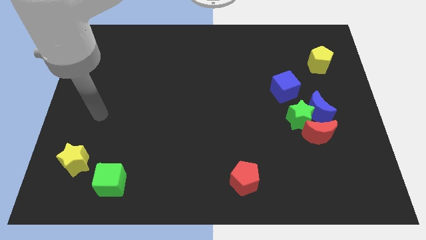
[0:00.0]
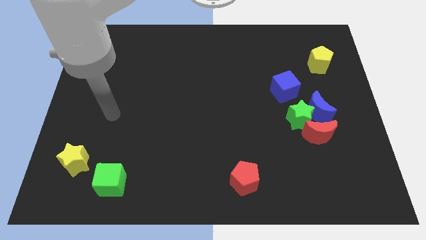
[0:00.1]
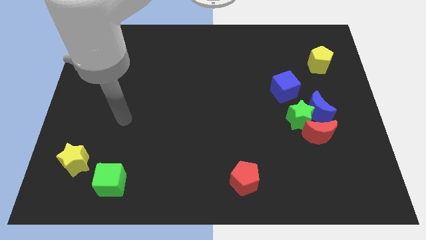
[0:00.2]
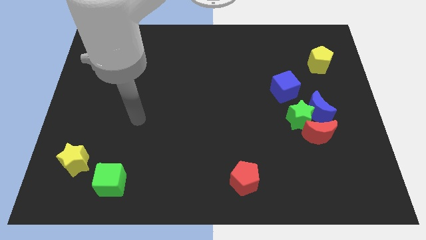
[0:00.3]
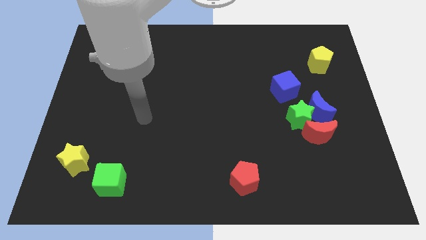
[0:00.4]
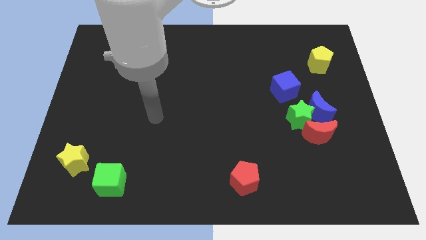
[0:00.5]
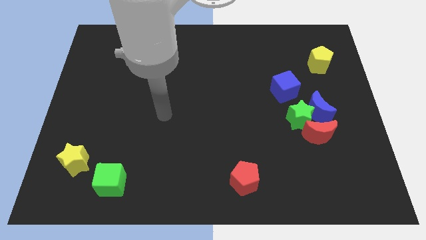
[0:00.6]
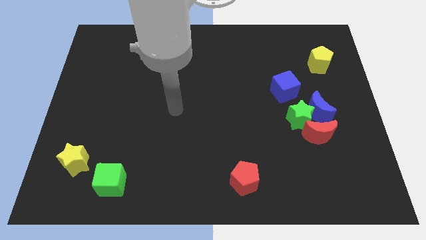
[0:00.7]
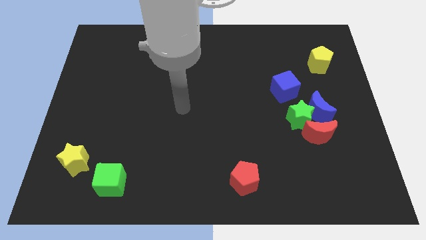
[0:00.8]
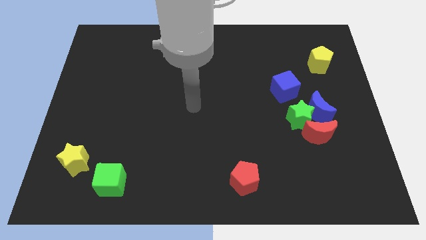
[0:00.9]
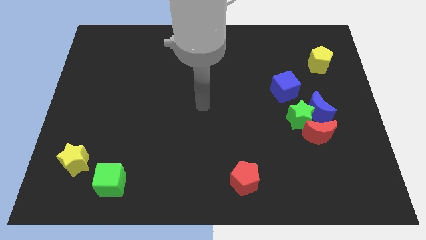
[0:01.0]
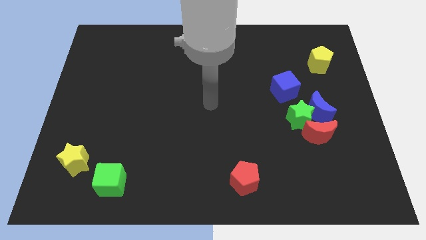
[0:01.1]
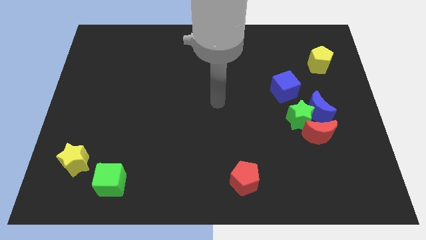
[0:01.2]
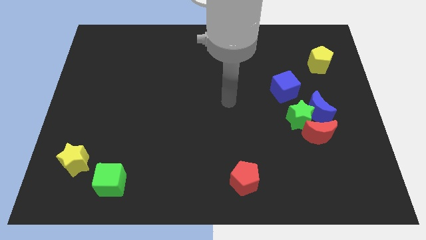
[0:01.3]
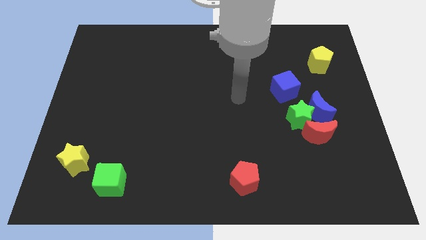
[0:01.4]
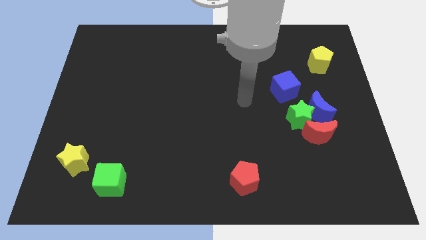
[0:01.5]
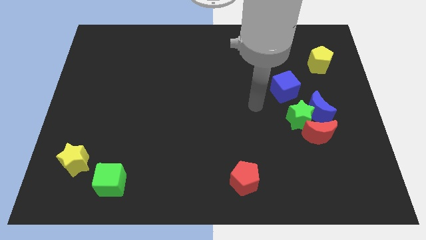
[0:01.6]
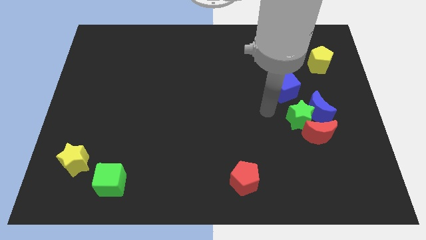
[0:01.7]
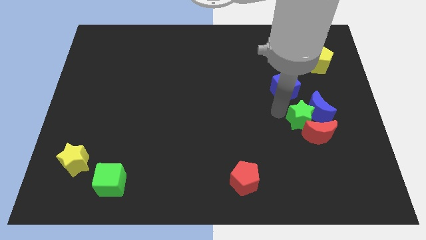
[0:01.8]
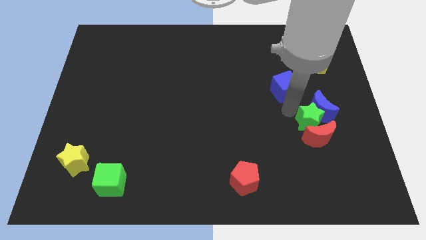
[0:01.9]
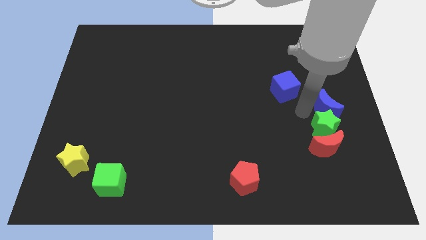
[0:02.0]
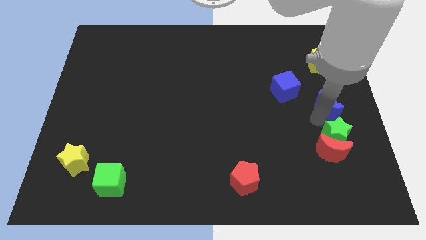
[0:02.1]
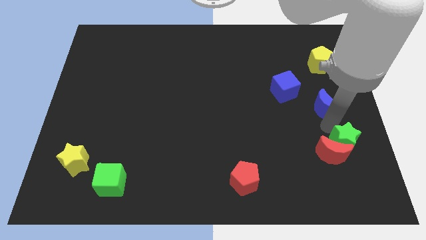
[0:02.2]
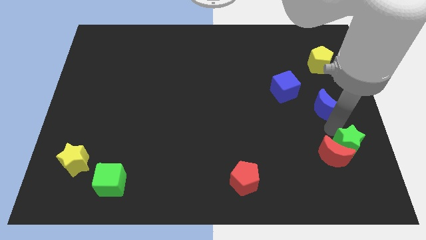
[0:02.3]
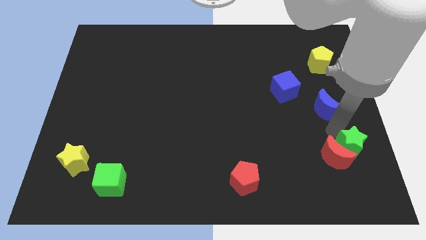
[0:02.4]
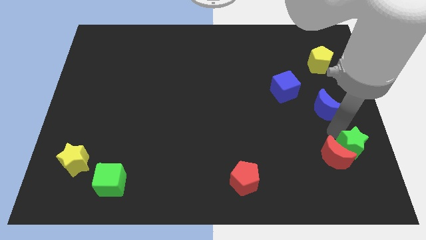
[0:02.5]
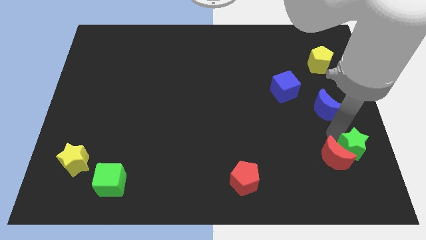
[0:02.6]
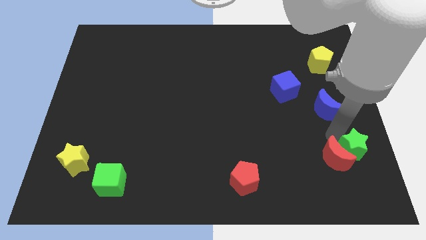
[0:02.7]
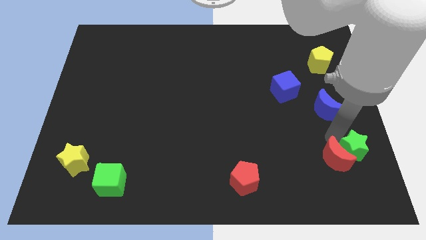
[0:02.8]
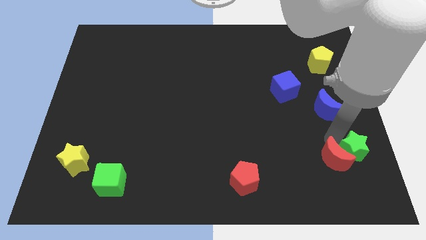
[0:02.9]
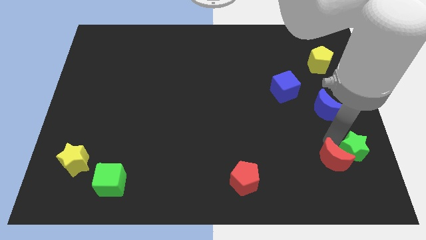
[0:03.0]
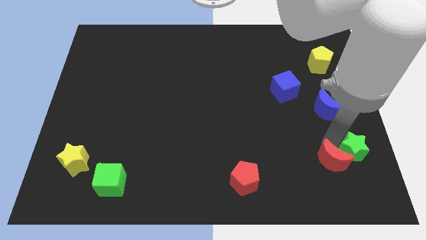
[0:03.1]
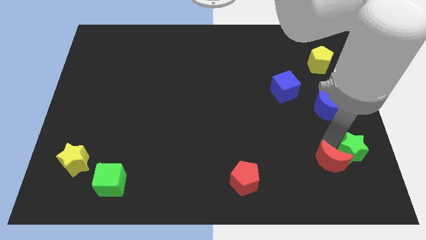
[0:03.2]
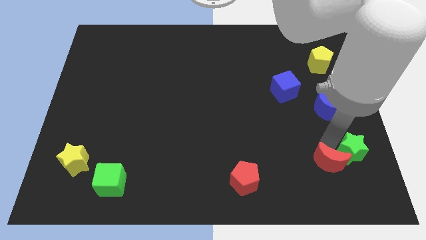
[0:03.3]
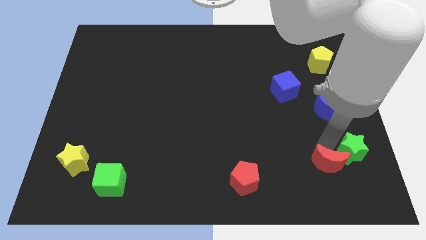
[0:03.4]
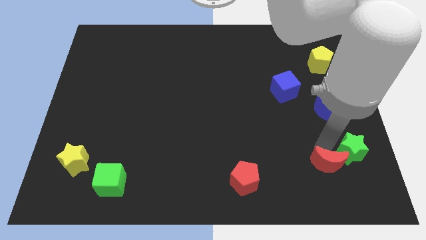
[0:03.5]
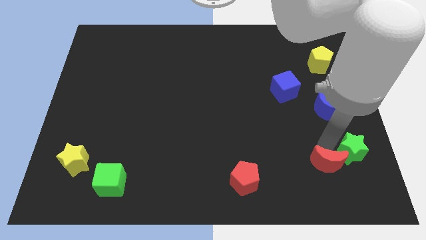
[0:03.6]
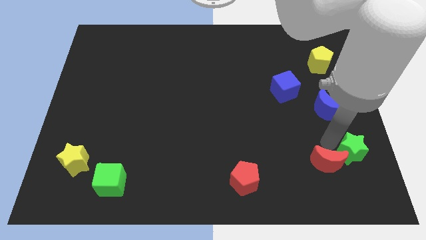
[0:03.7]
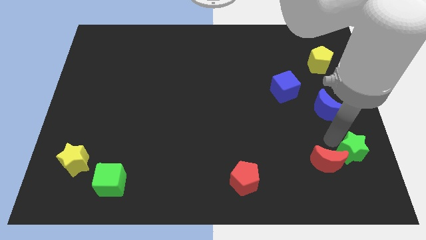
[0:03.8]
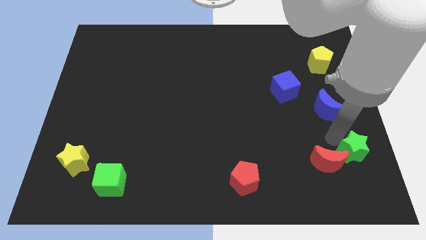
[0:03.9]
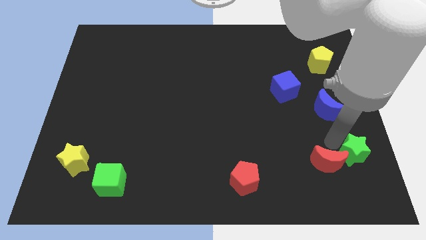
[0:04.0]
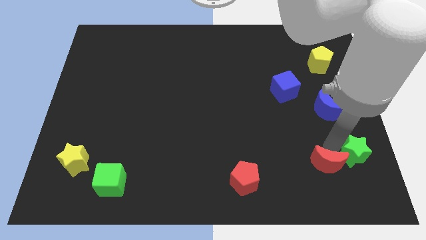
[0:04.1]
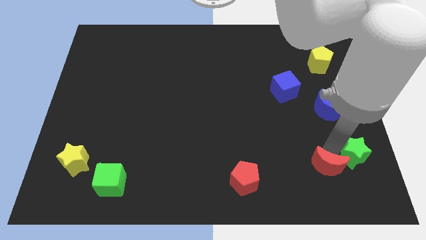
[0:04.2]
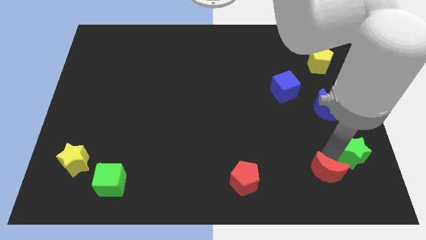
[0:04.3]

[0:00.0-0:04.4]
pull the red moon apart from the green star and blue moon

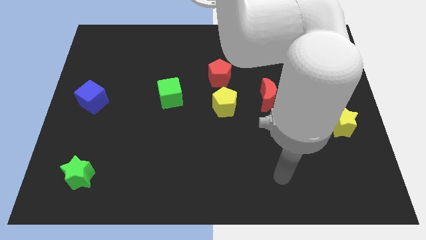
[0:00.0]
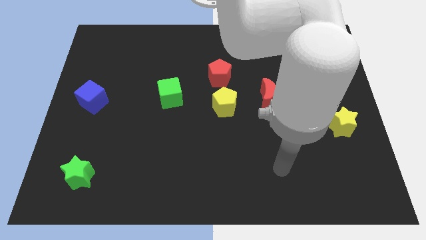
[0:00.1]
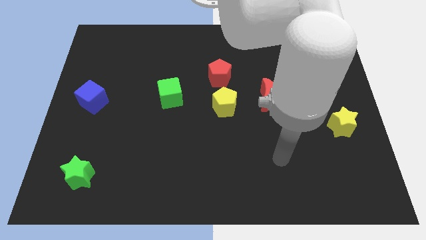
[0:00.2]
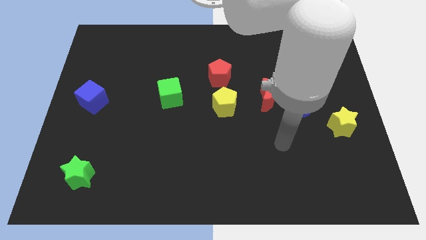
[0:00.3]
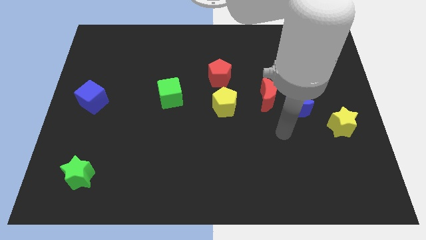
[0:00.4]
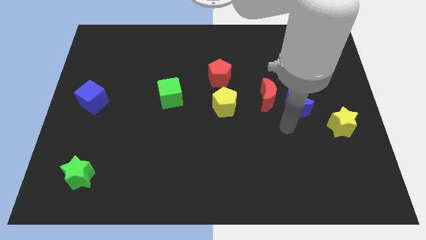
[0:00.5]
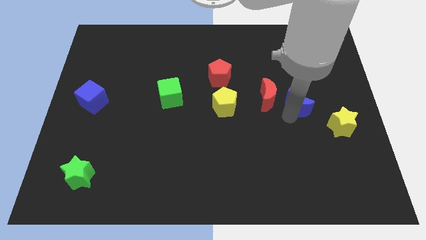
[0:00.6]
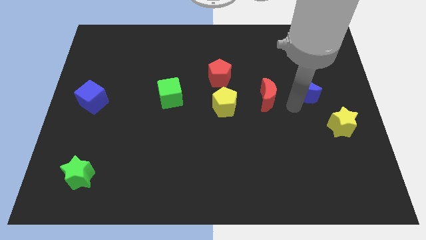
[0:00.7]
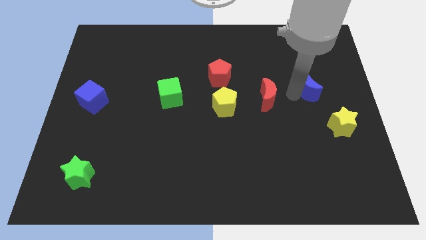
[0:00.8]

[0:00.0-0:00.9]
separate the red moon from the blue moon

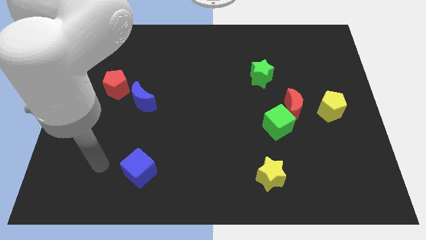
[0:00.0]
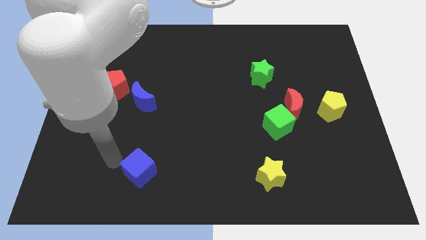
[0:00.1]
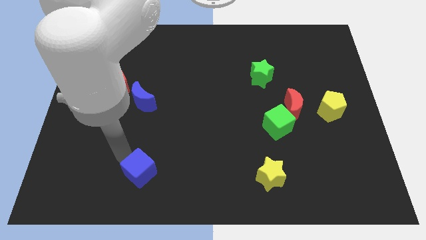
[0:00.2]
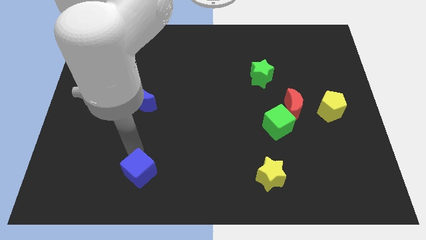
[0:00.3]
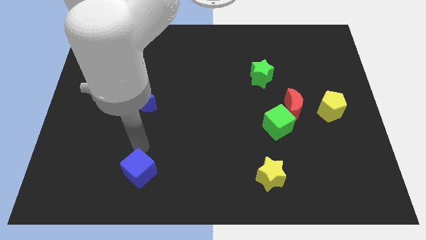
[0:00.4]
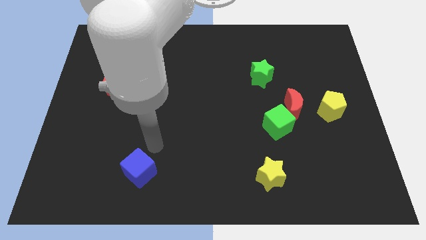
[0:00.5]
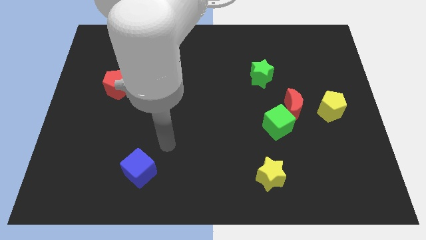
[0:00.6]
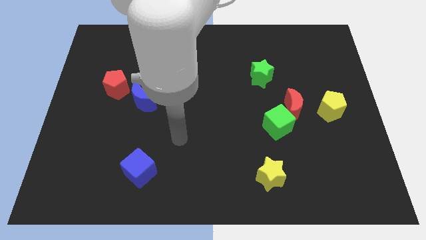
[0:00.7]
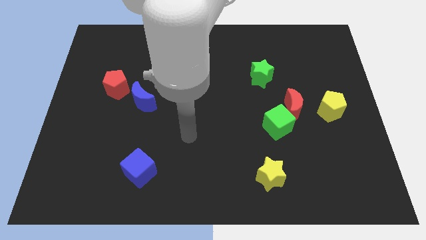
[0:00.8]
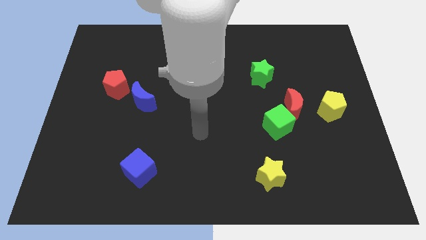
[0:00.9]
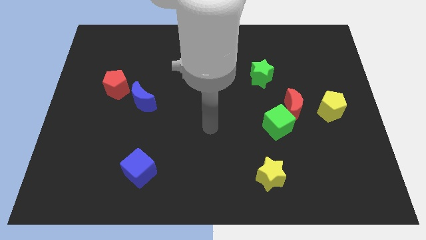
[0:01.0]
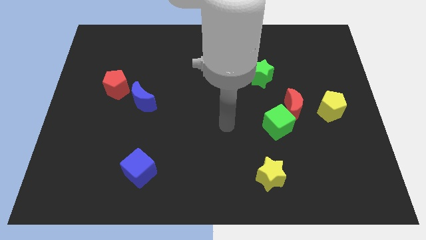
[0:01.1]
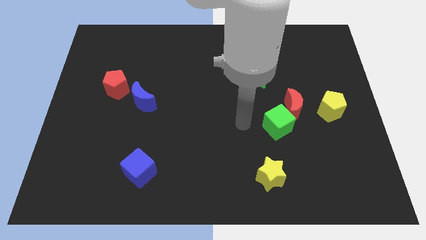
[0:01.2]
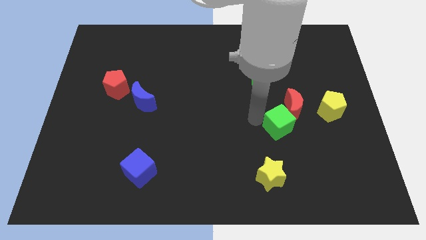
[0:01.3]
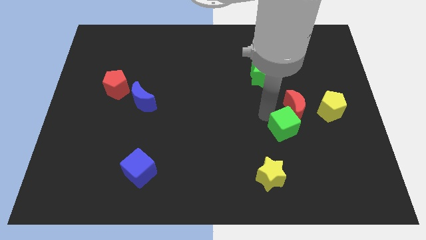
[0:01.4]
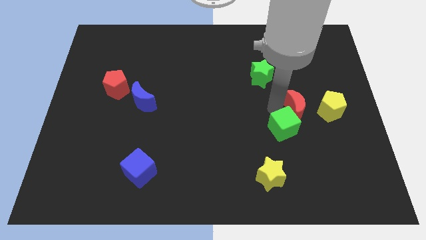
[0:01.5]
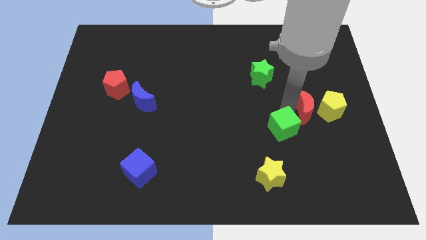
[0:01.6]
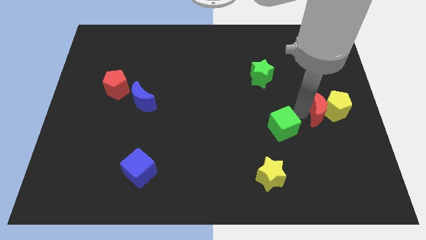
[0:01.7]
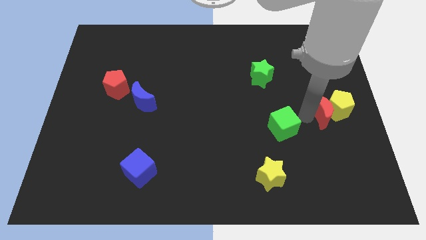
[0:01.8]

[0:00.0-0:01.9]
move the green cube away from the red moon

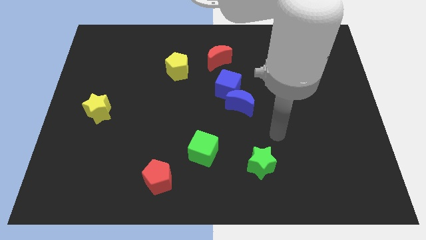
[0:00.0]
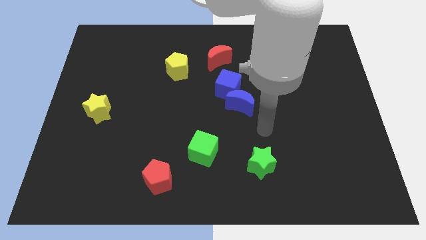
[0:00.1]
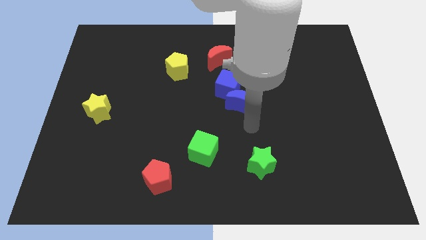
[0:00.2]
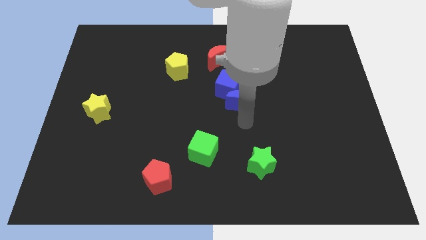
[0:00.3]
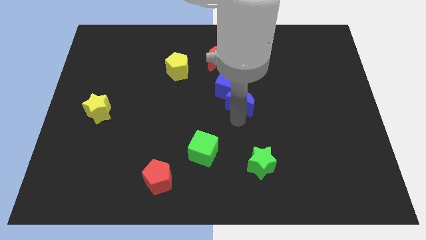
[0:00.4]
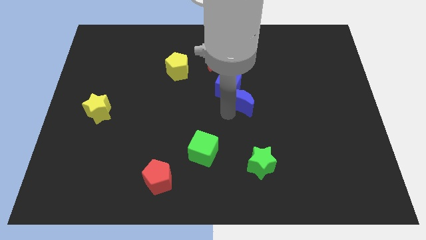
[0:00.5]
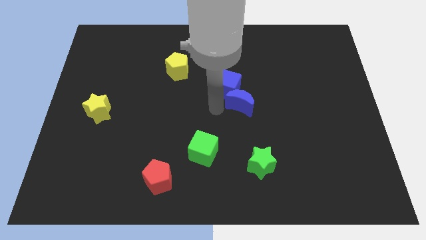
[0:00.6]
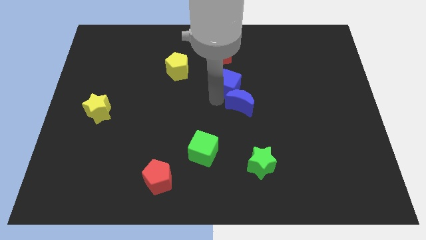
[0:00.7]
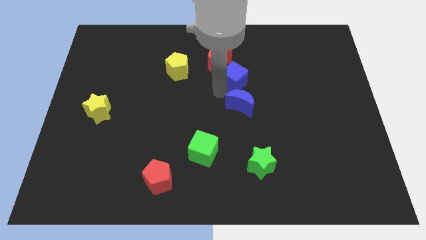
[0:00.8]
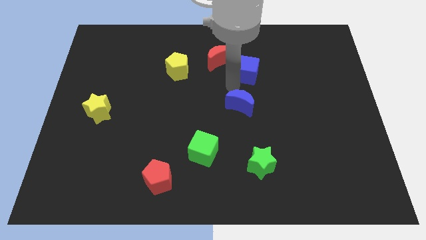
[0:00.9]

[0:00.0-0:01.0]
move the blue moon away from the blue cube

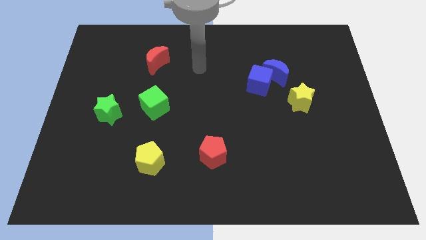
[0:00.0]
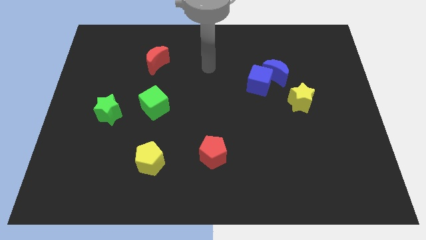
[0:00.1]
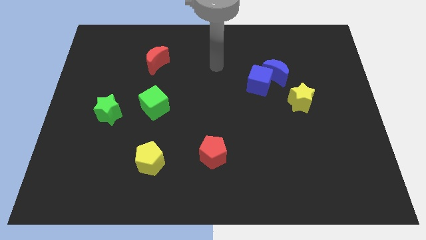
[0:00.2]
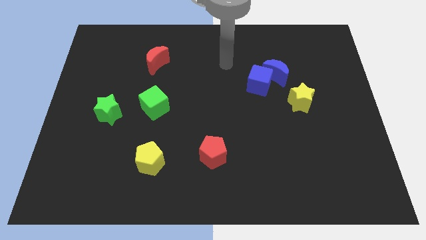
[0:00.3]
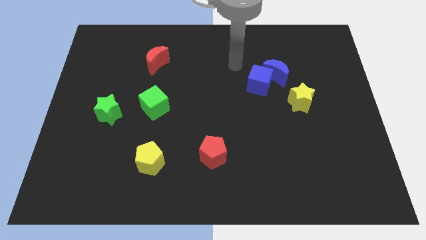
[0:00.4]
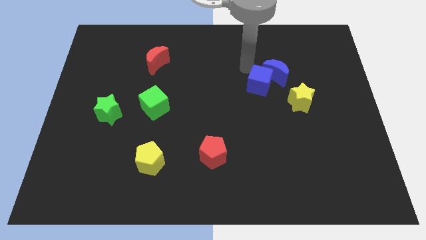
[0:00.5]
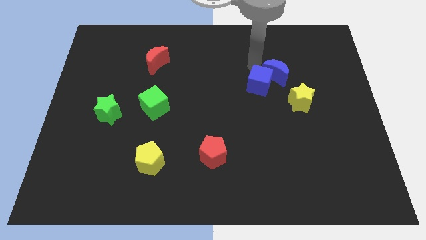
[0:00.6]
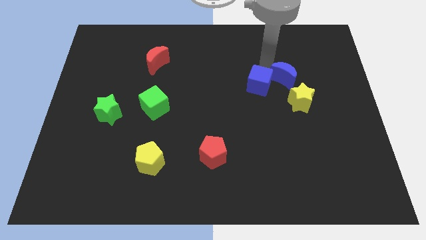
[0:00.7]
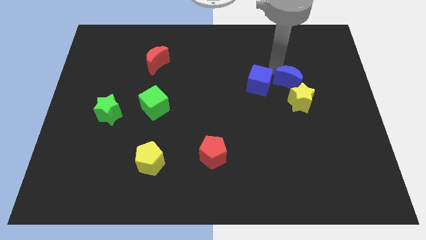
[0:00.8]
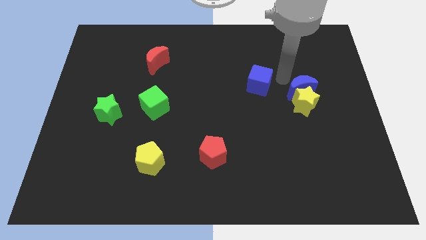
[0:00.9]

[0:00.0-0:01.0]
separate the blue cube from the blue moon

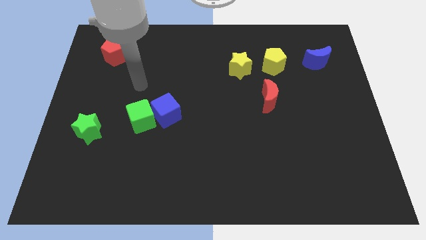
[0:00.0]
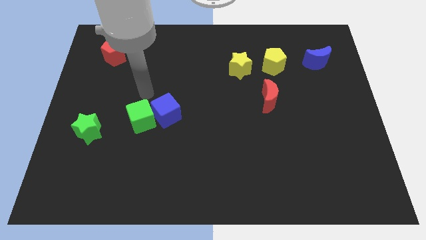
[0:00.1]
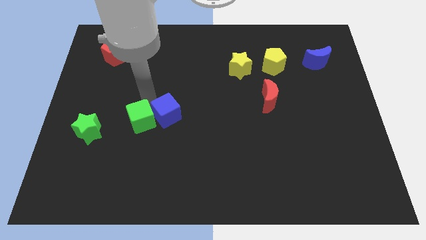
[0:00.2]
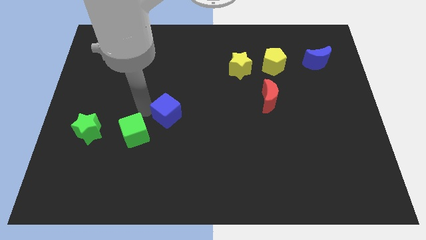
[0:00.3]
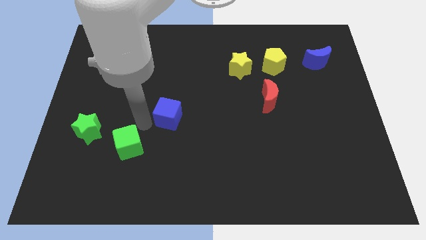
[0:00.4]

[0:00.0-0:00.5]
move the blue cube away from the green cube
